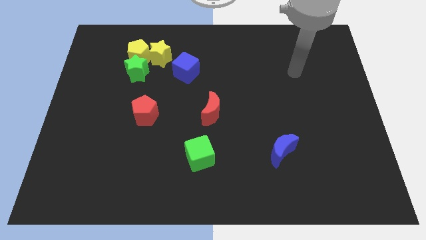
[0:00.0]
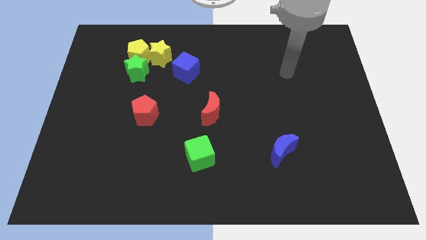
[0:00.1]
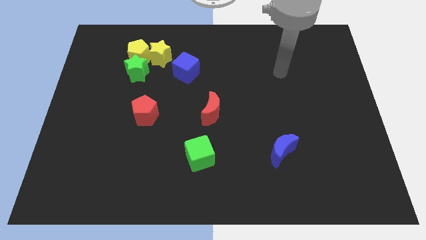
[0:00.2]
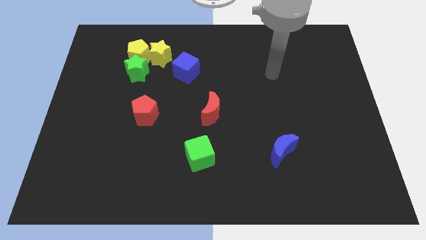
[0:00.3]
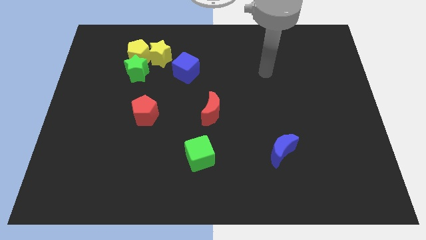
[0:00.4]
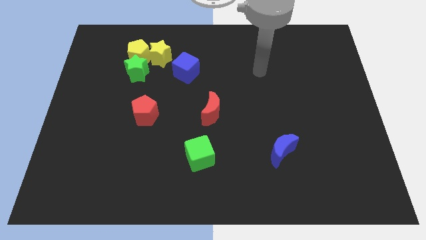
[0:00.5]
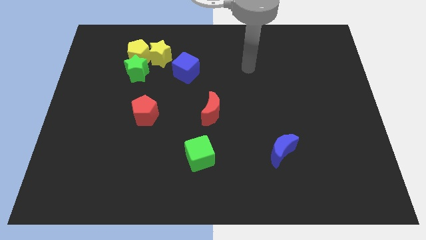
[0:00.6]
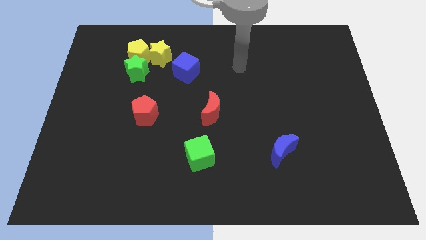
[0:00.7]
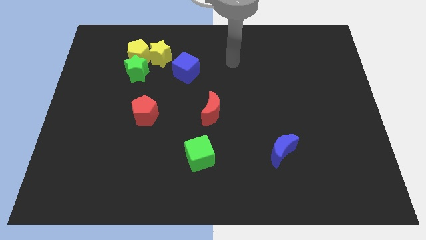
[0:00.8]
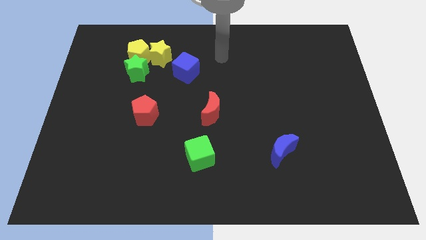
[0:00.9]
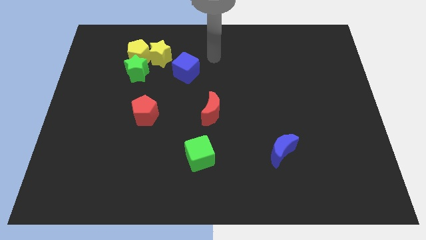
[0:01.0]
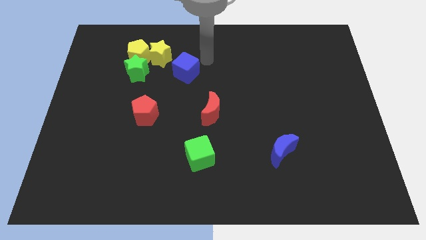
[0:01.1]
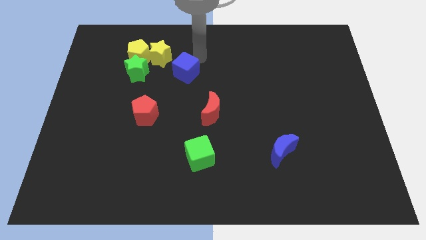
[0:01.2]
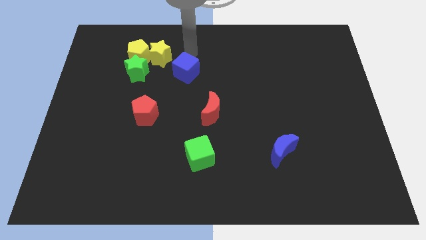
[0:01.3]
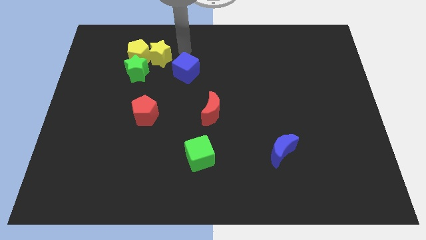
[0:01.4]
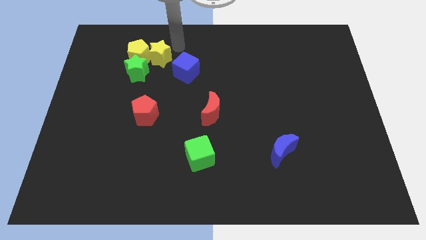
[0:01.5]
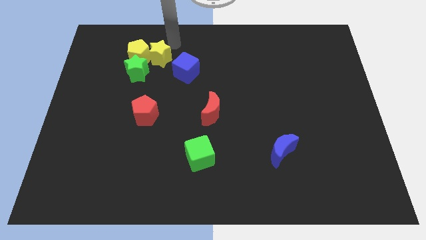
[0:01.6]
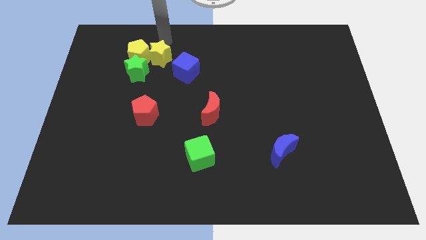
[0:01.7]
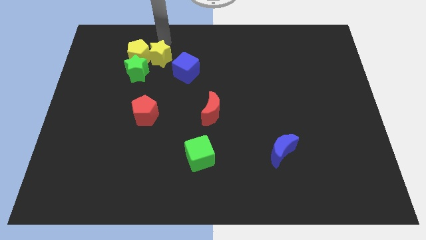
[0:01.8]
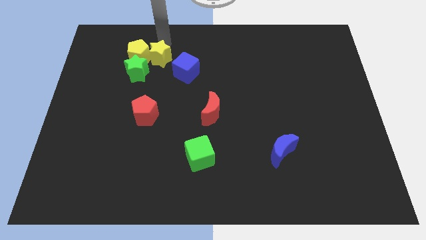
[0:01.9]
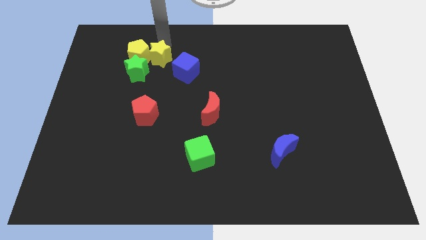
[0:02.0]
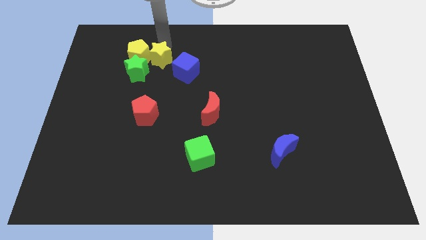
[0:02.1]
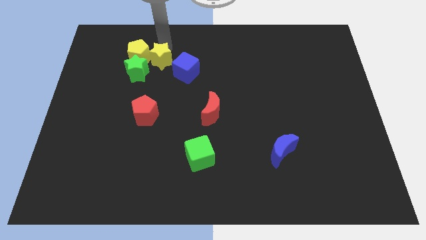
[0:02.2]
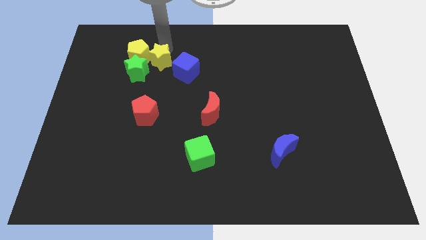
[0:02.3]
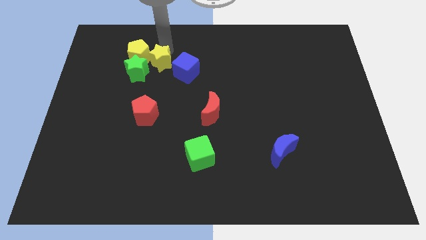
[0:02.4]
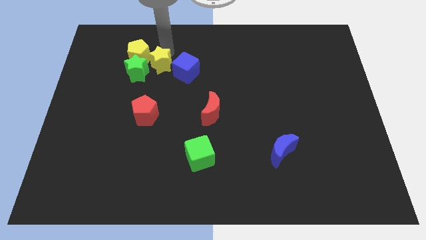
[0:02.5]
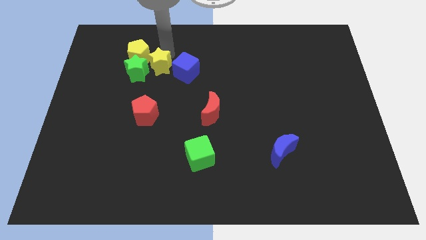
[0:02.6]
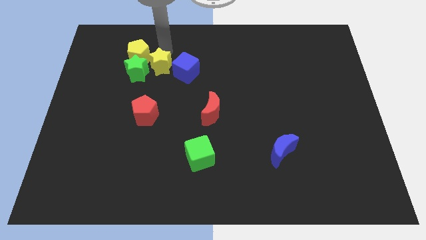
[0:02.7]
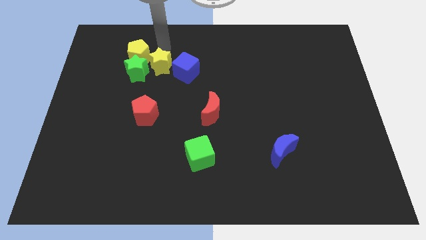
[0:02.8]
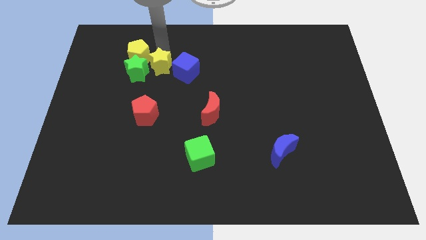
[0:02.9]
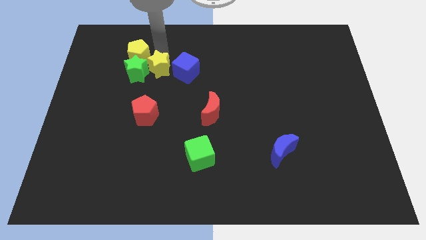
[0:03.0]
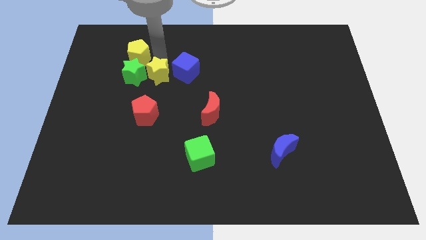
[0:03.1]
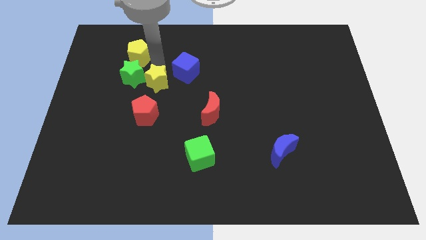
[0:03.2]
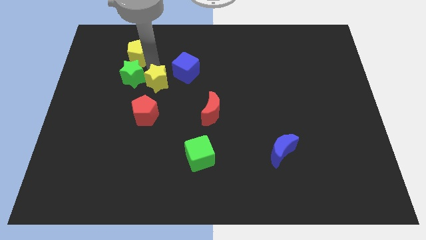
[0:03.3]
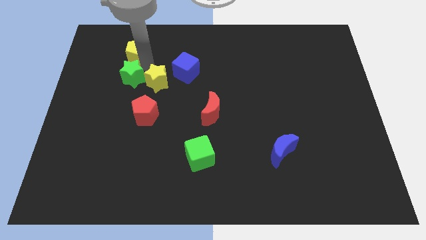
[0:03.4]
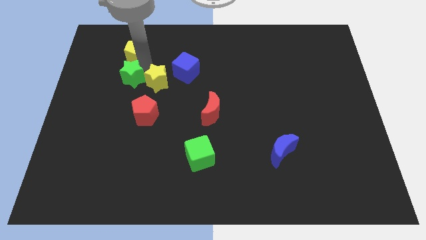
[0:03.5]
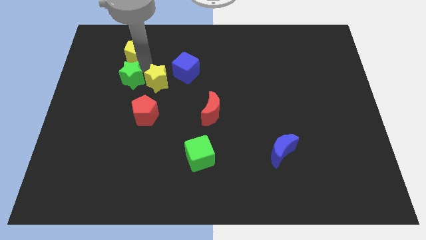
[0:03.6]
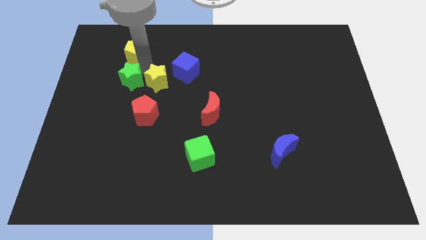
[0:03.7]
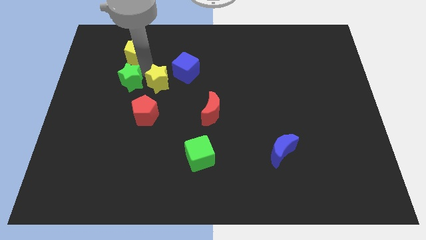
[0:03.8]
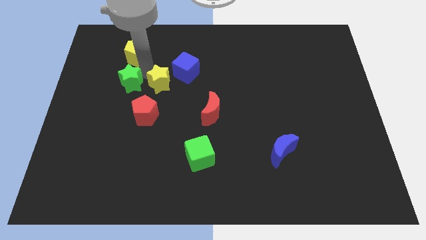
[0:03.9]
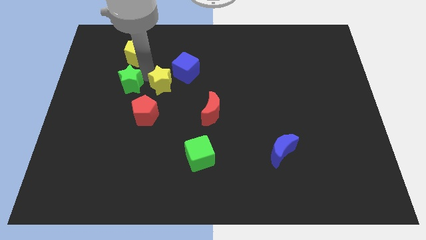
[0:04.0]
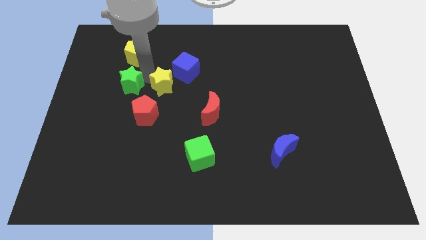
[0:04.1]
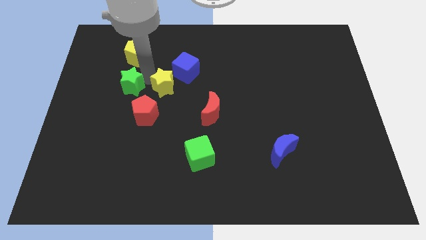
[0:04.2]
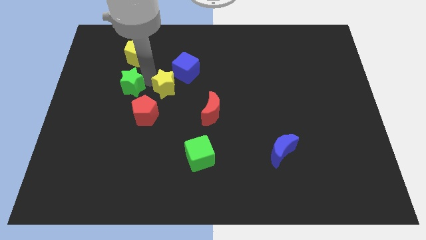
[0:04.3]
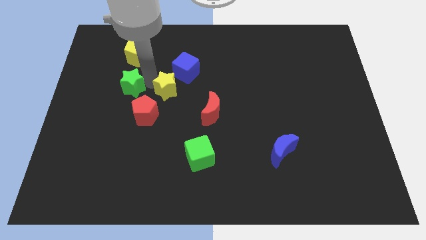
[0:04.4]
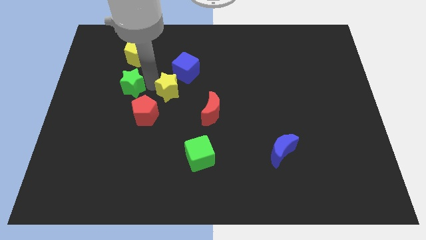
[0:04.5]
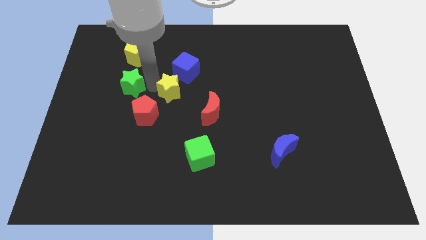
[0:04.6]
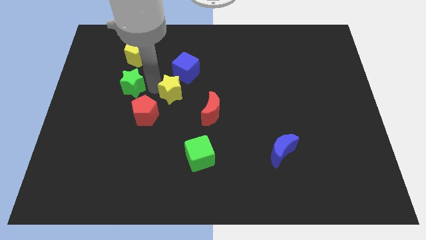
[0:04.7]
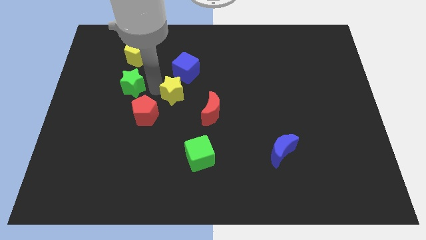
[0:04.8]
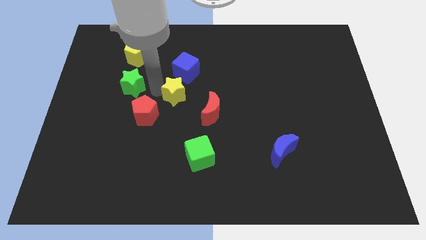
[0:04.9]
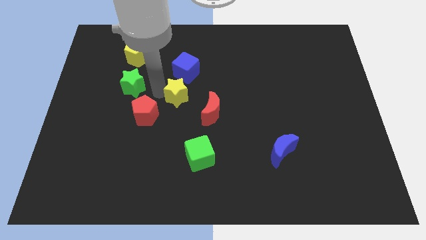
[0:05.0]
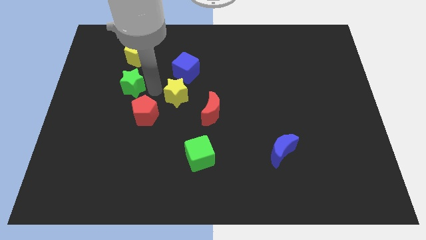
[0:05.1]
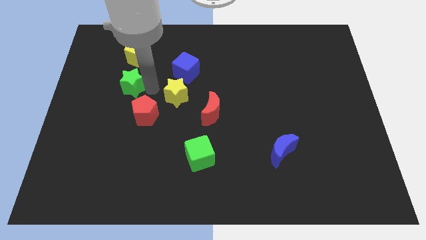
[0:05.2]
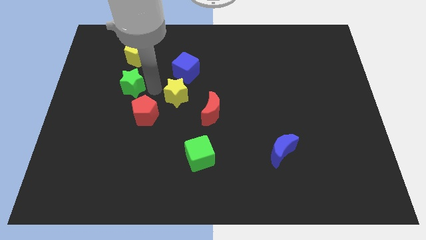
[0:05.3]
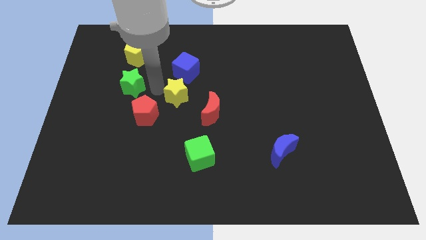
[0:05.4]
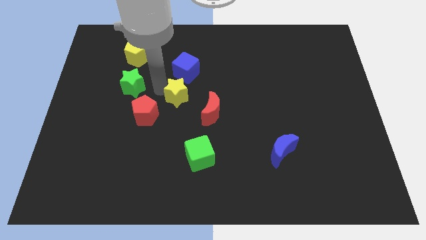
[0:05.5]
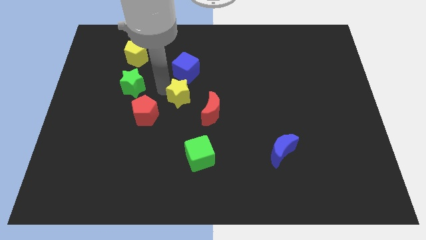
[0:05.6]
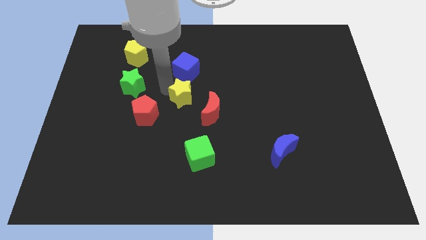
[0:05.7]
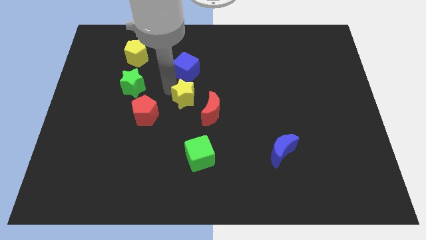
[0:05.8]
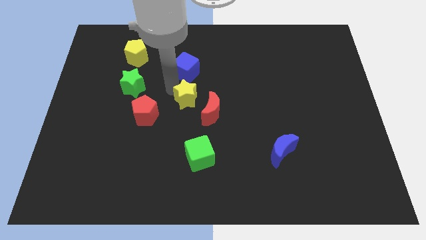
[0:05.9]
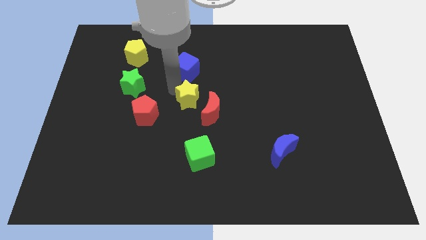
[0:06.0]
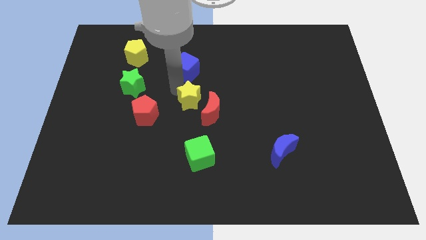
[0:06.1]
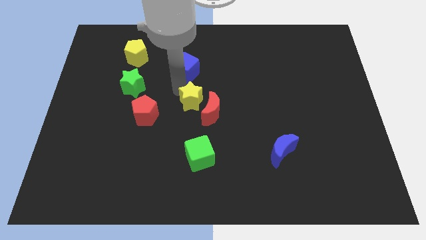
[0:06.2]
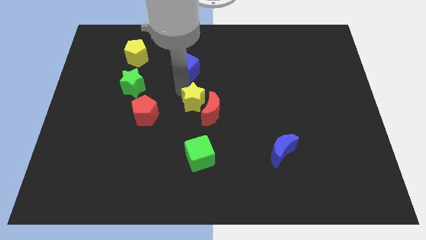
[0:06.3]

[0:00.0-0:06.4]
move the yellow star next to the red moon

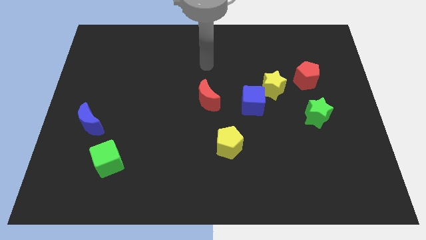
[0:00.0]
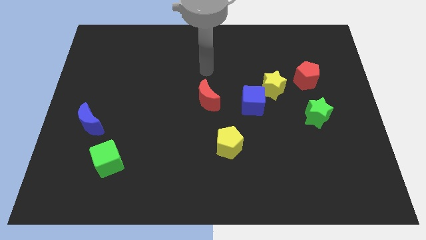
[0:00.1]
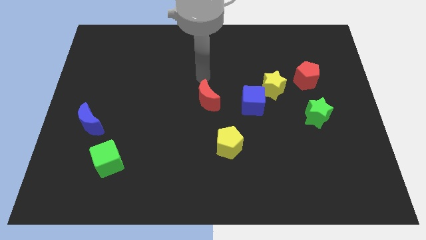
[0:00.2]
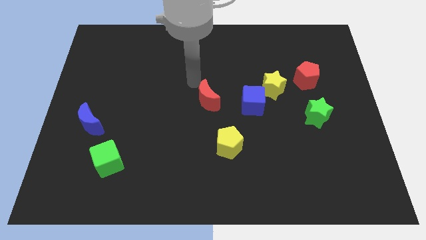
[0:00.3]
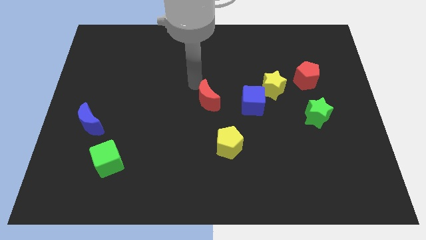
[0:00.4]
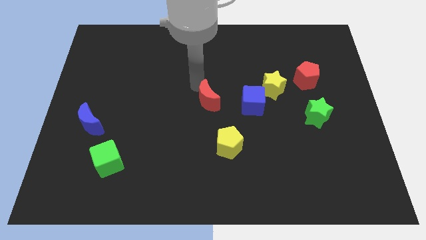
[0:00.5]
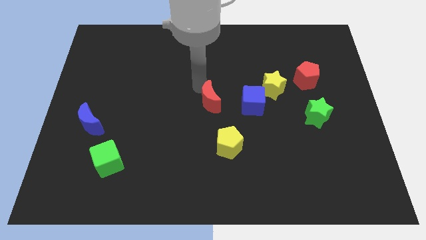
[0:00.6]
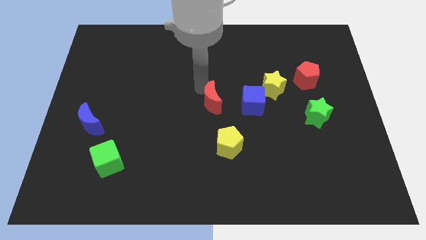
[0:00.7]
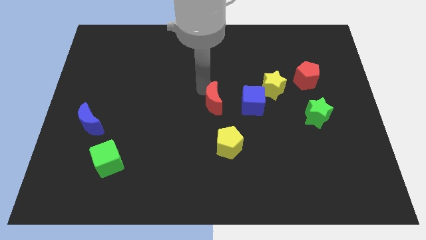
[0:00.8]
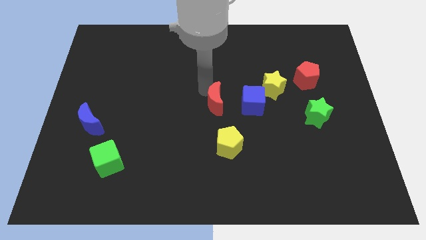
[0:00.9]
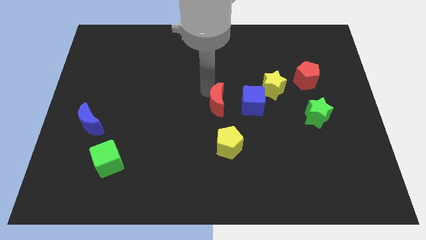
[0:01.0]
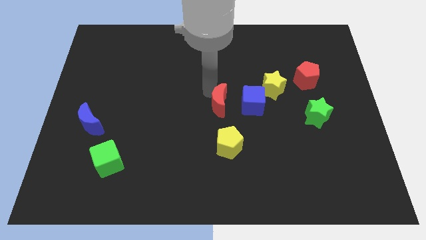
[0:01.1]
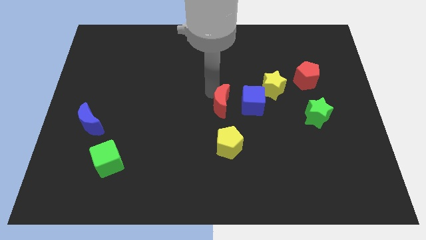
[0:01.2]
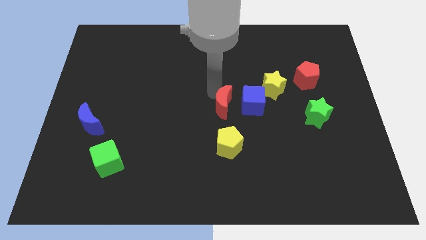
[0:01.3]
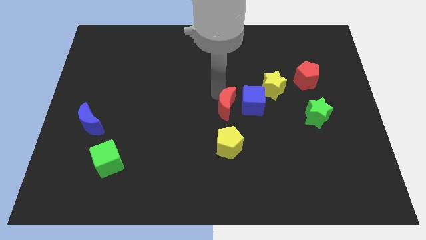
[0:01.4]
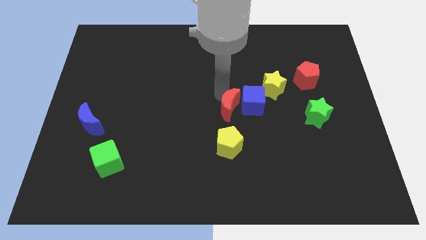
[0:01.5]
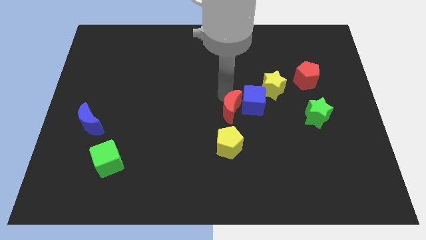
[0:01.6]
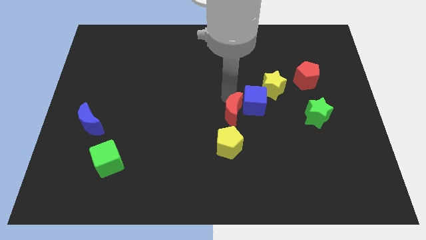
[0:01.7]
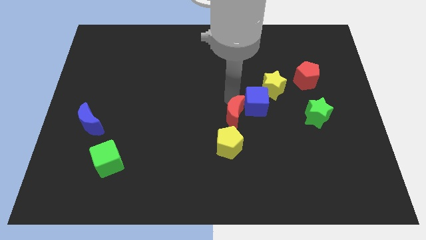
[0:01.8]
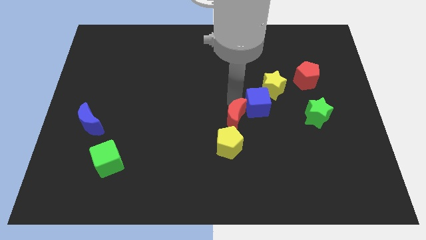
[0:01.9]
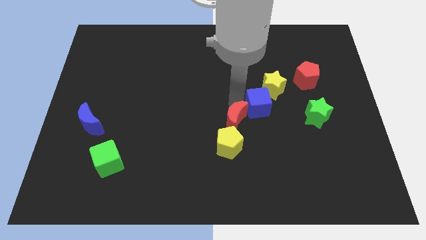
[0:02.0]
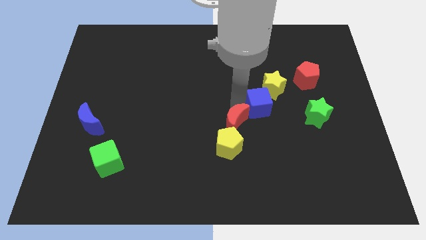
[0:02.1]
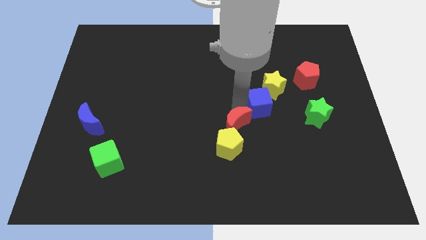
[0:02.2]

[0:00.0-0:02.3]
slide the red moon next to the yellow pentagon
